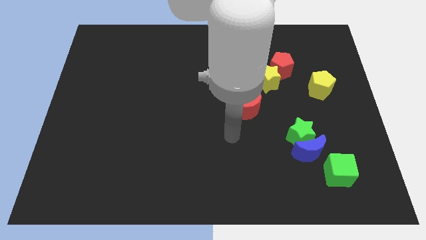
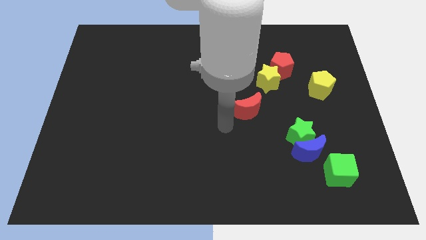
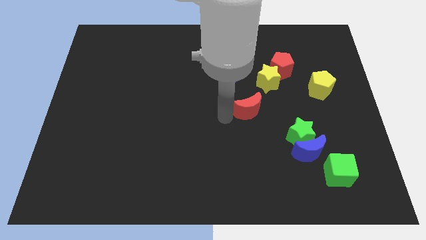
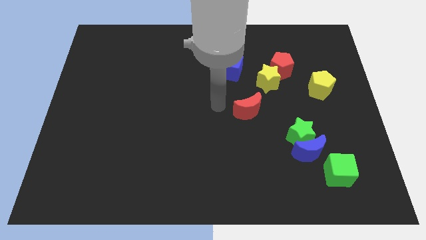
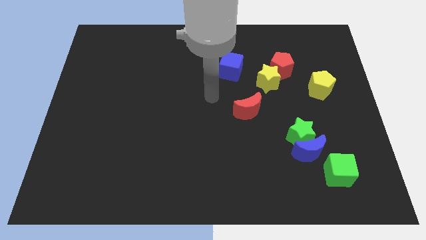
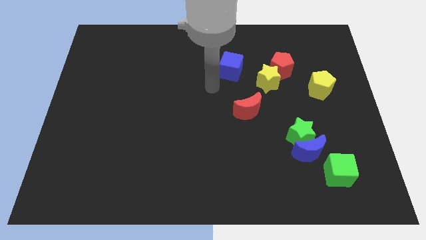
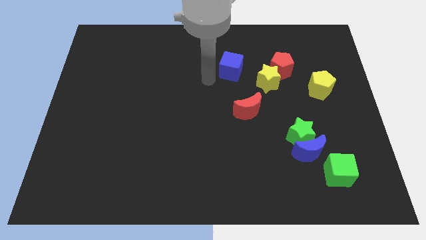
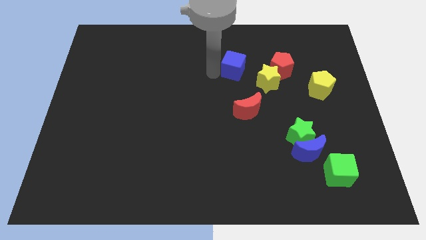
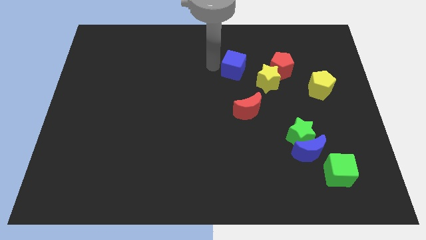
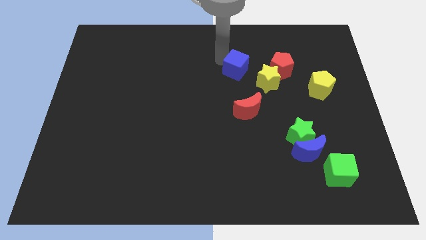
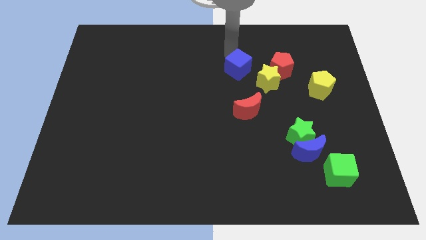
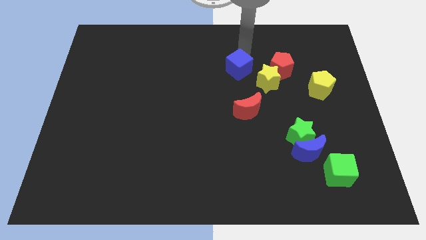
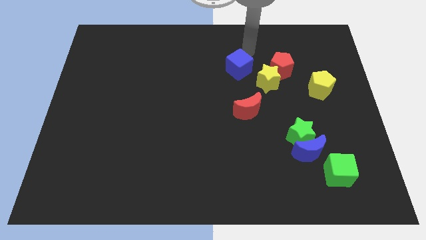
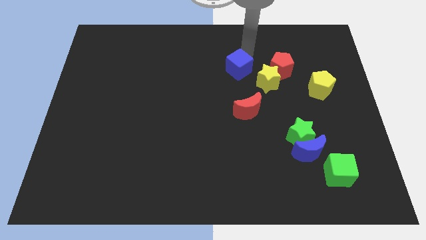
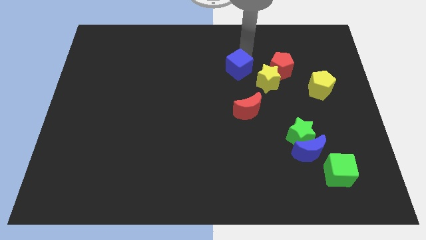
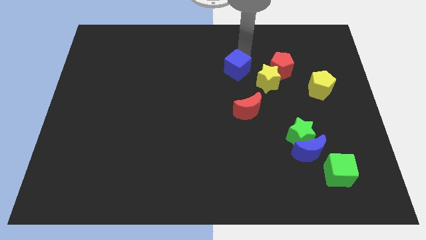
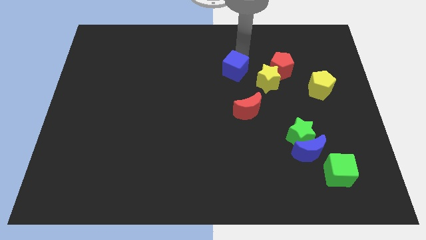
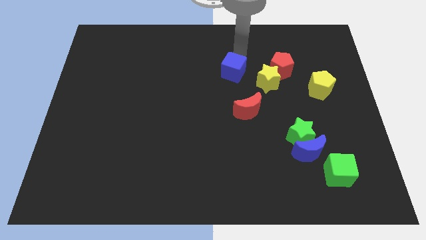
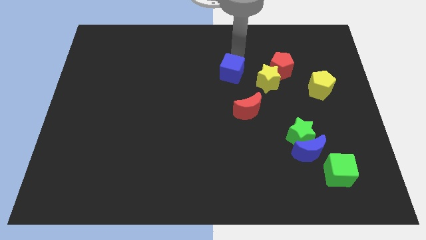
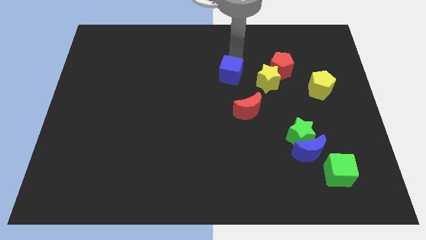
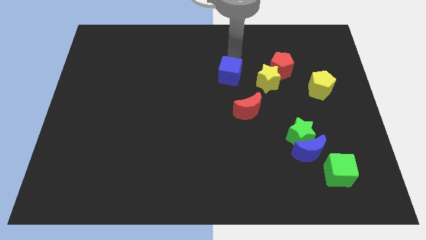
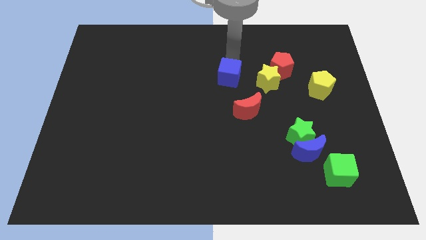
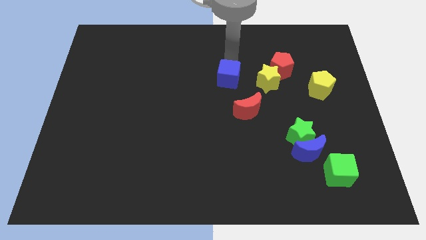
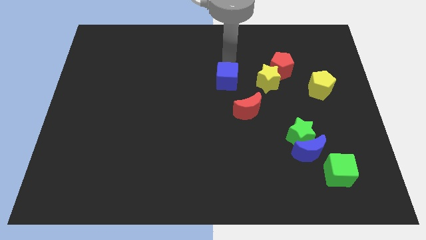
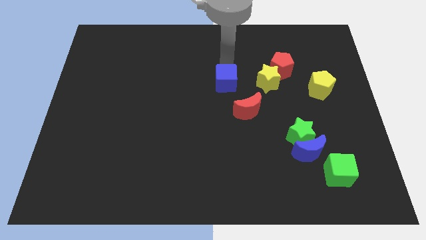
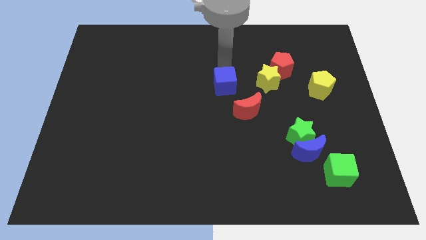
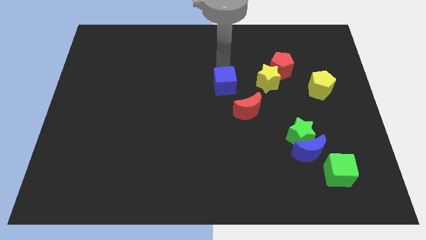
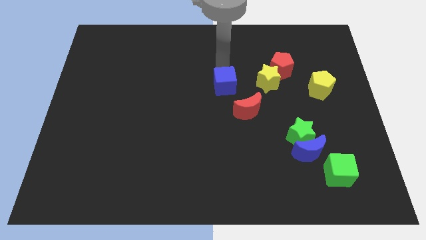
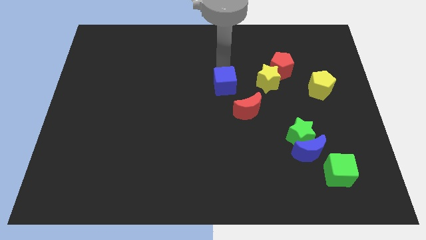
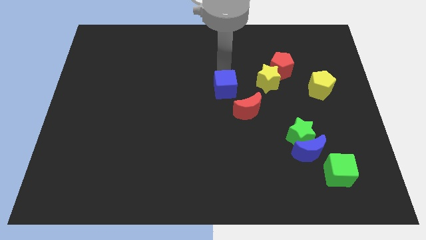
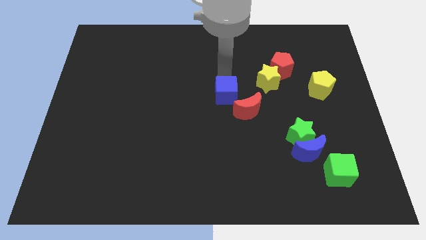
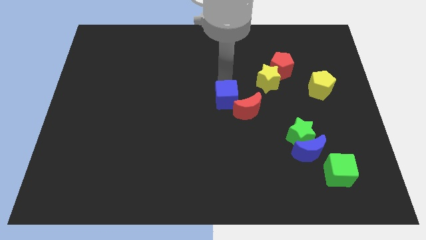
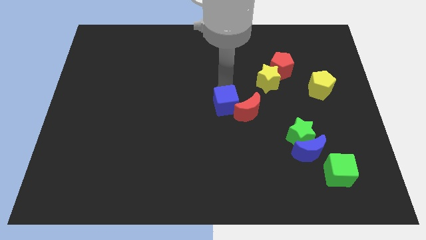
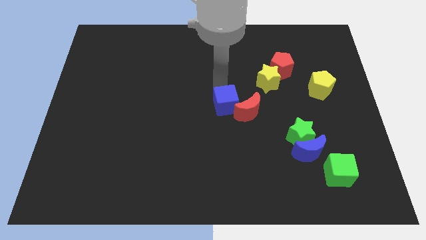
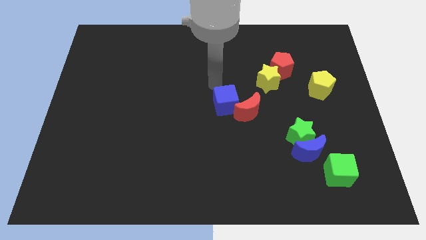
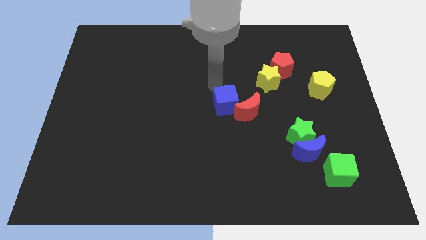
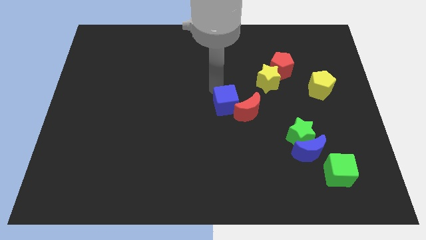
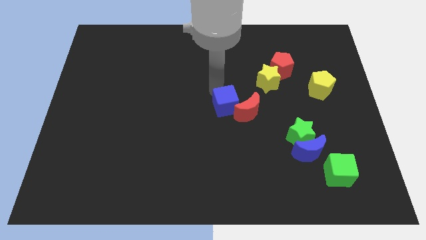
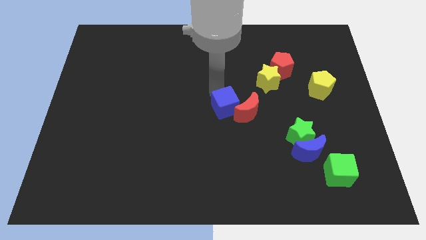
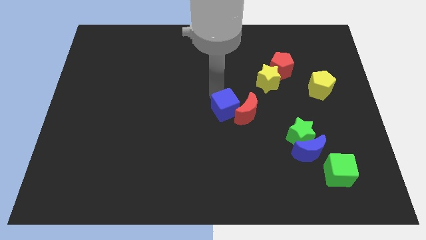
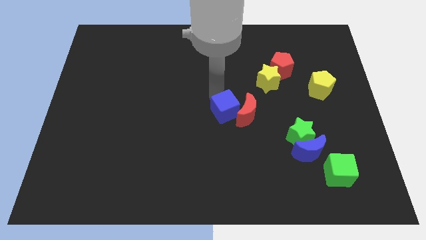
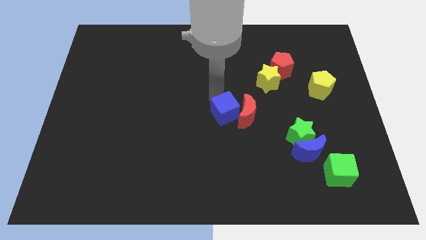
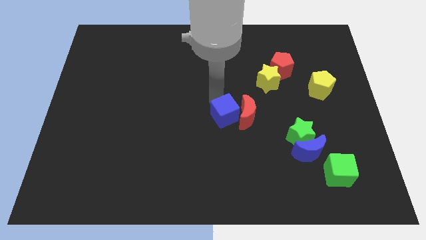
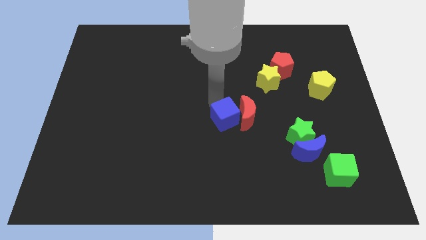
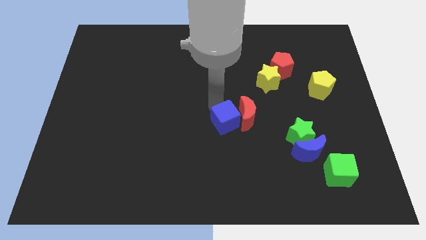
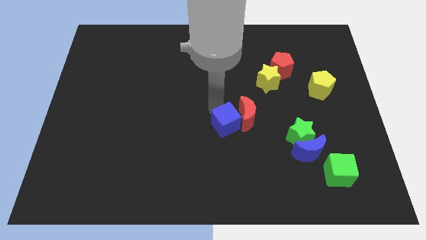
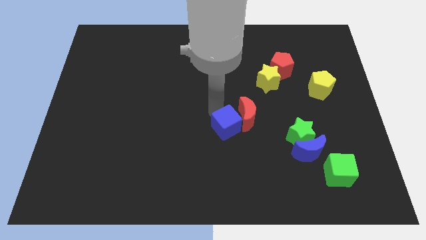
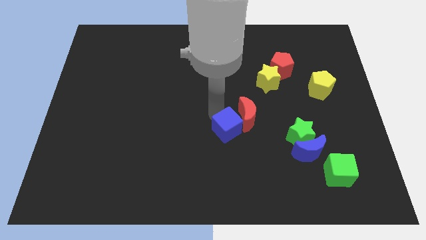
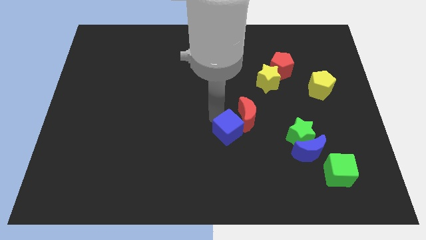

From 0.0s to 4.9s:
put the blue cube left of the green star

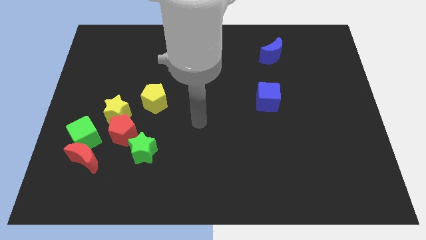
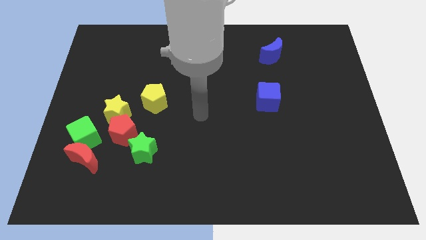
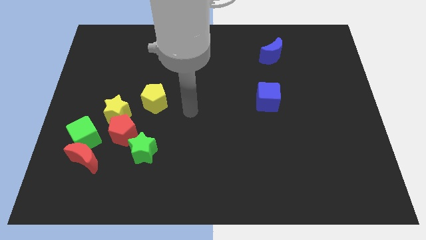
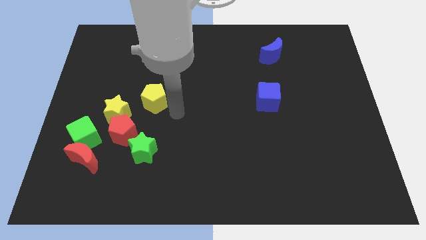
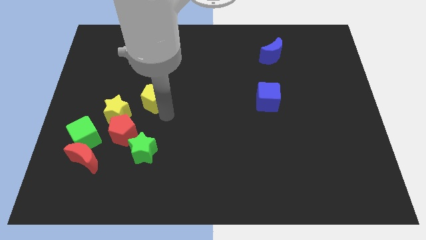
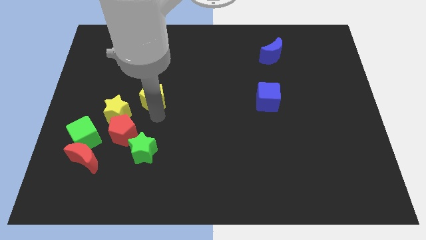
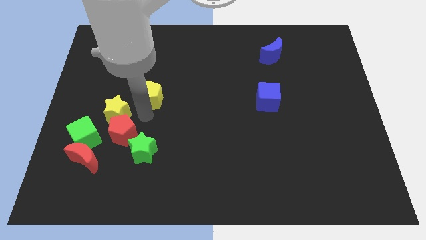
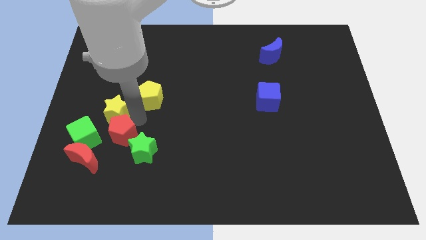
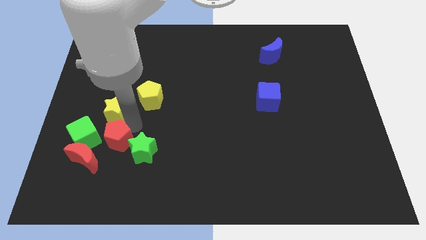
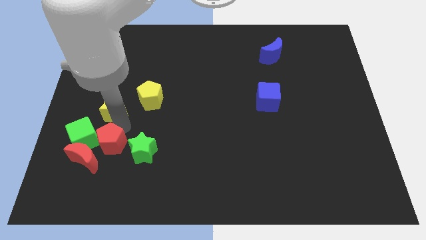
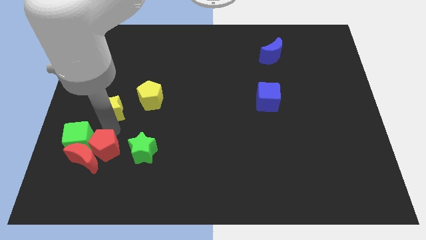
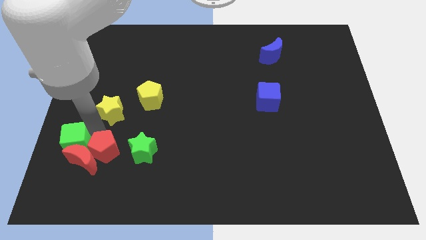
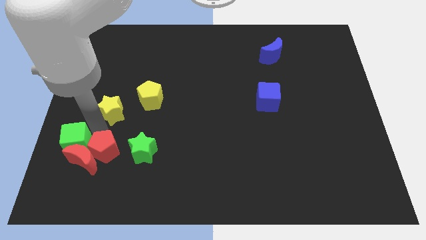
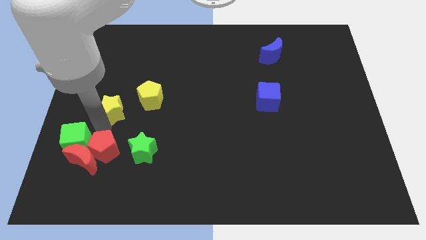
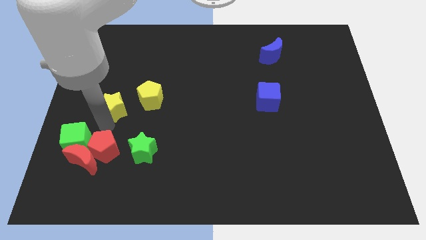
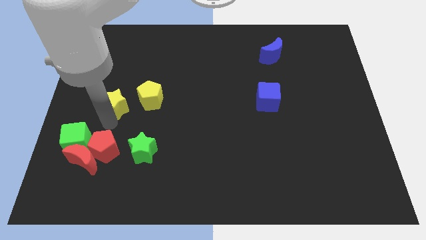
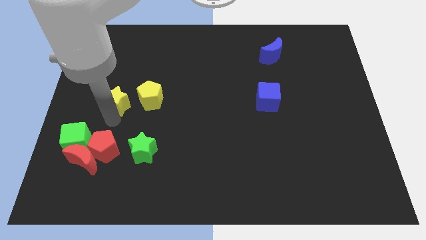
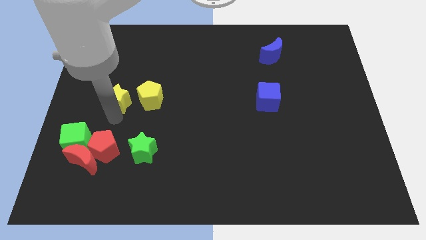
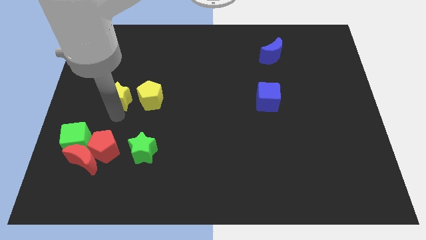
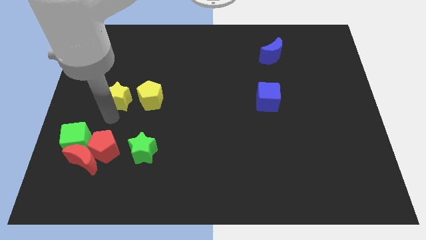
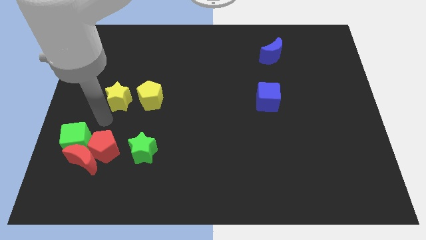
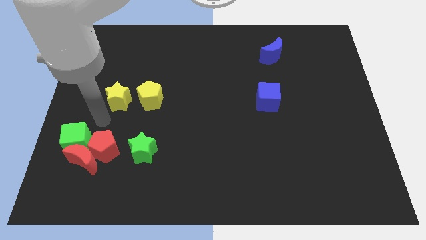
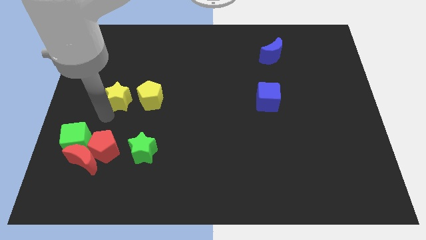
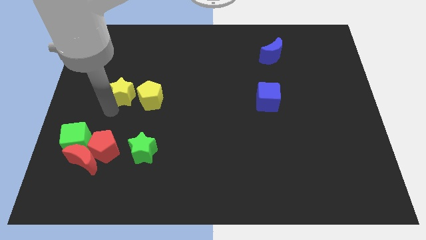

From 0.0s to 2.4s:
put the yellow star diagonally up and to the left of the yellow pentagon
